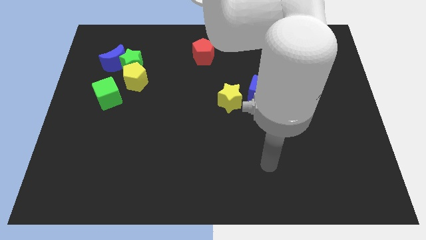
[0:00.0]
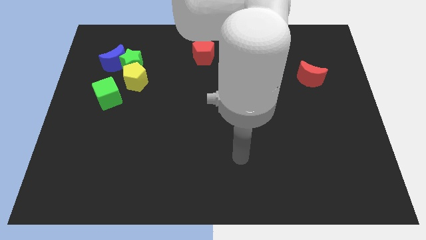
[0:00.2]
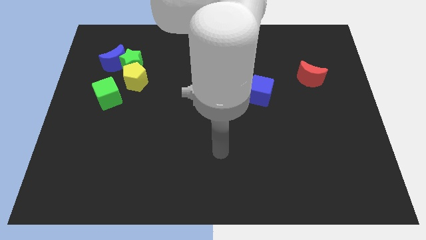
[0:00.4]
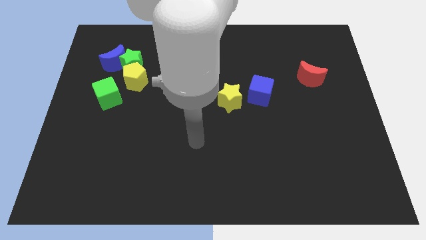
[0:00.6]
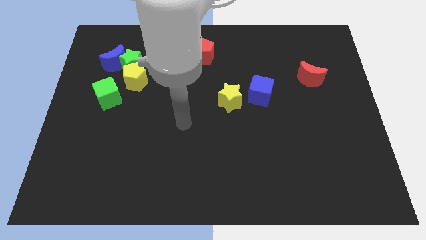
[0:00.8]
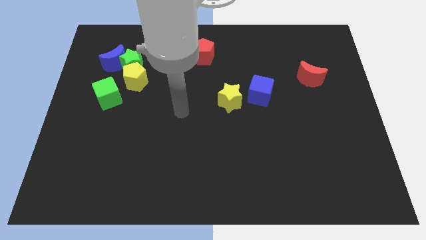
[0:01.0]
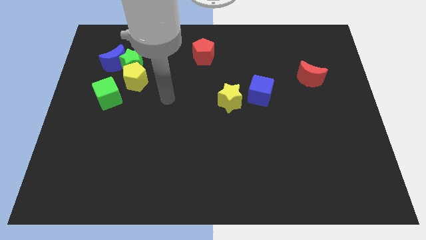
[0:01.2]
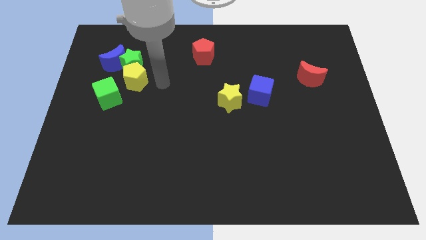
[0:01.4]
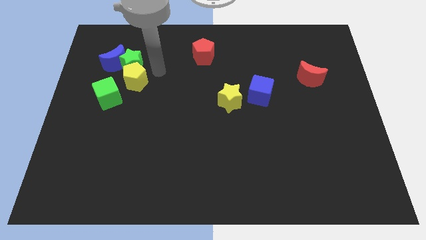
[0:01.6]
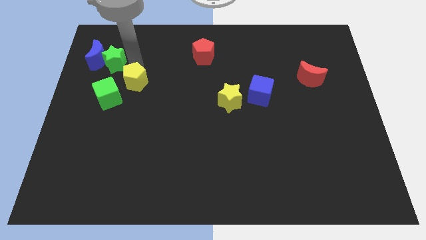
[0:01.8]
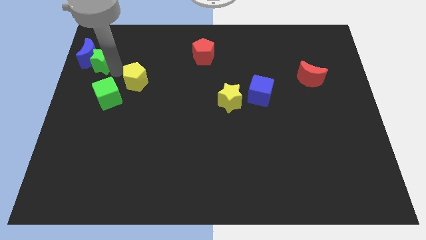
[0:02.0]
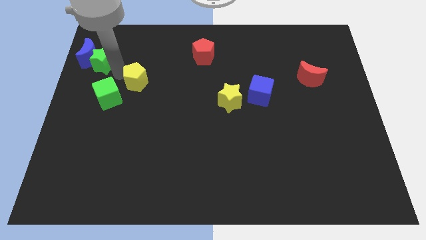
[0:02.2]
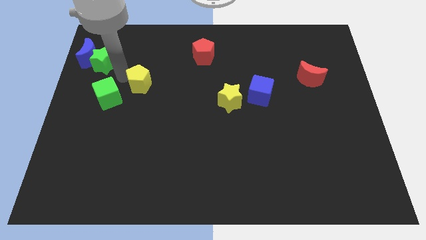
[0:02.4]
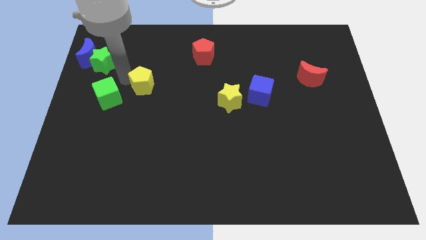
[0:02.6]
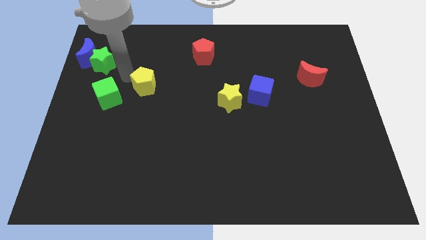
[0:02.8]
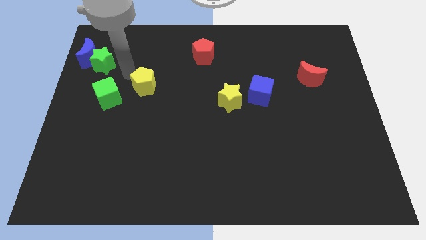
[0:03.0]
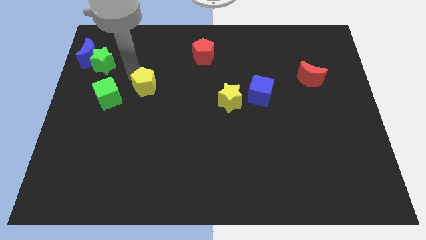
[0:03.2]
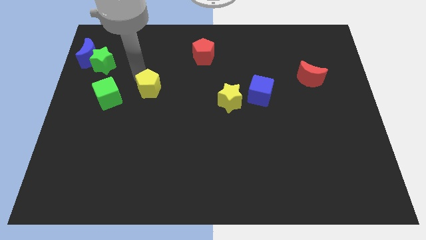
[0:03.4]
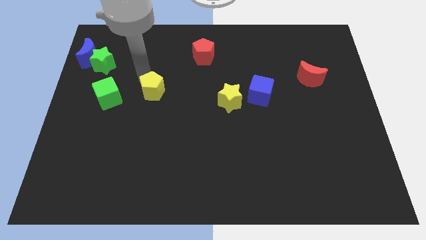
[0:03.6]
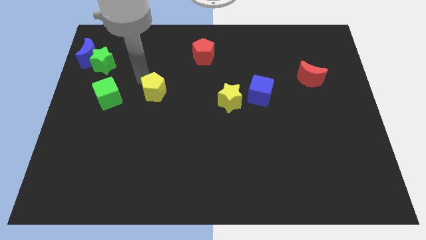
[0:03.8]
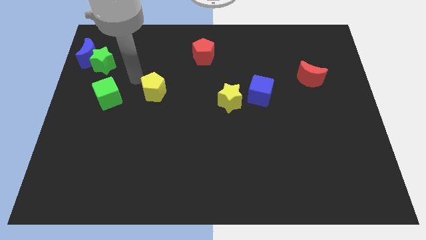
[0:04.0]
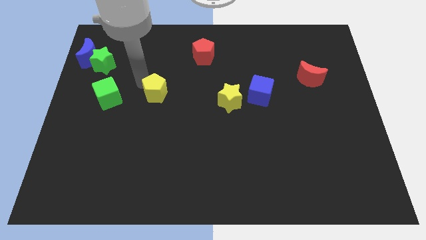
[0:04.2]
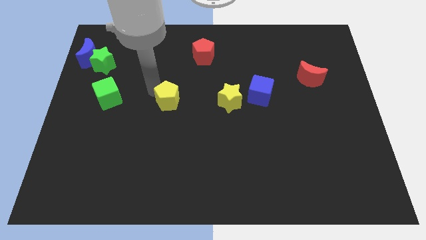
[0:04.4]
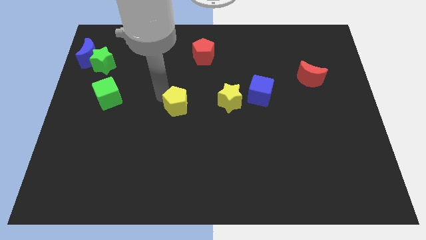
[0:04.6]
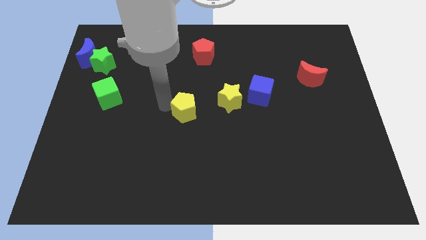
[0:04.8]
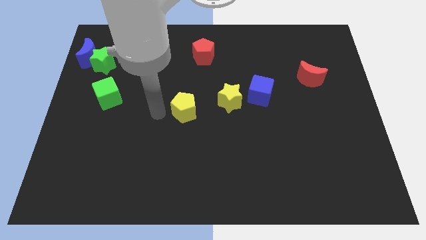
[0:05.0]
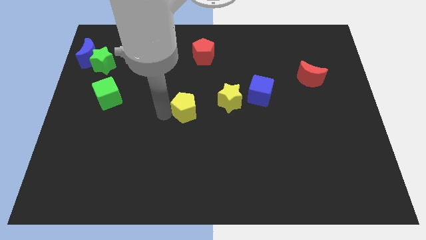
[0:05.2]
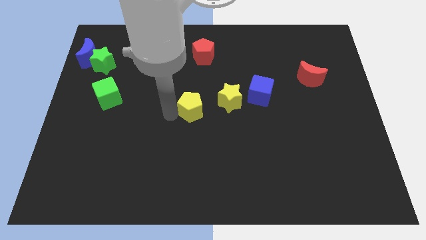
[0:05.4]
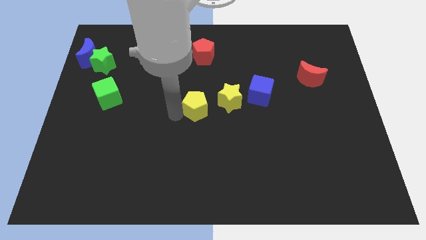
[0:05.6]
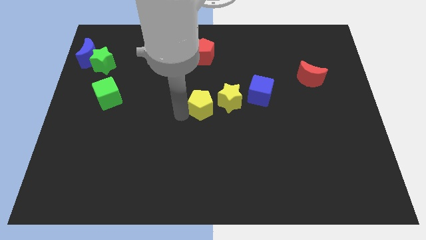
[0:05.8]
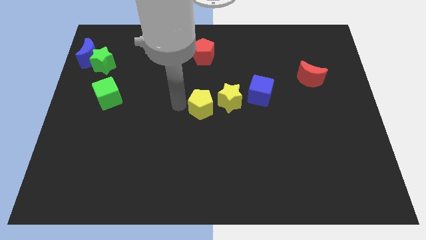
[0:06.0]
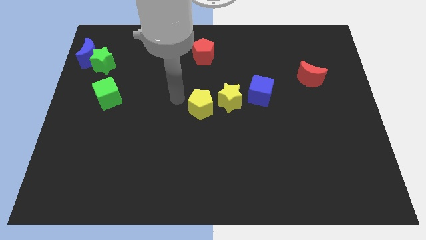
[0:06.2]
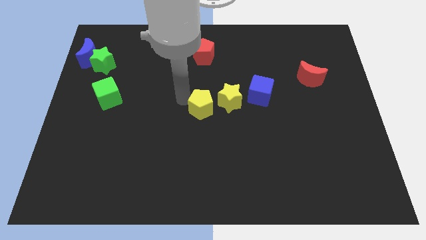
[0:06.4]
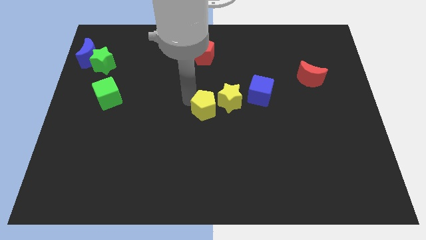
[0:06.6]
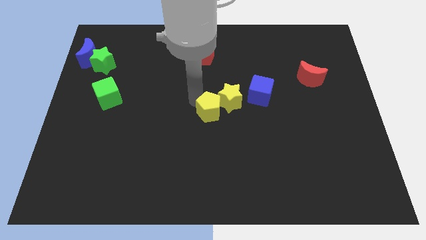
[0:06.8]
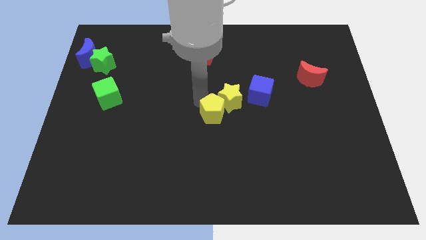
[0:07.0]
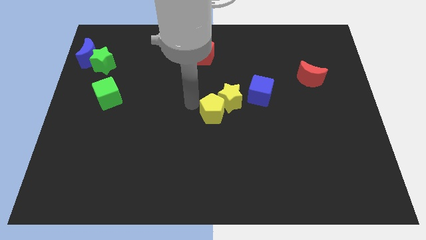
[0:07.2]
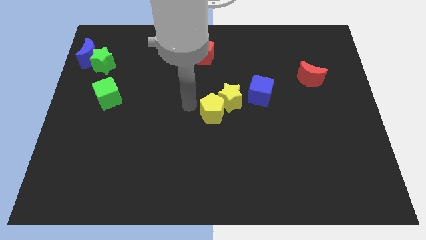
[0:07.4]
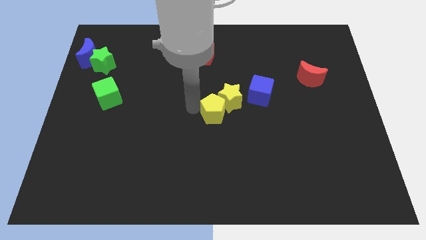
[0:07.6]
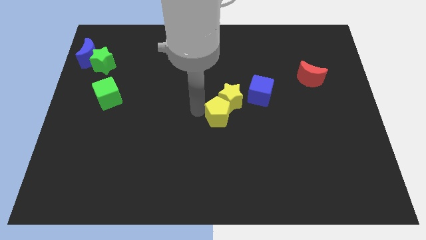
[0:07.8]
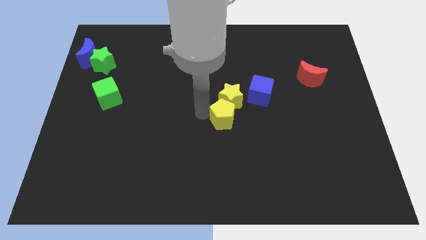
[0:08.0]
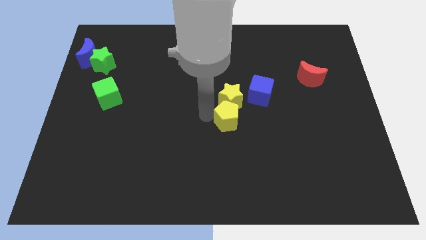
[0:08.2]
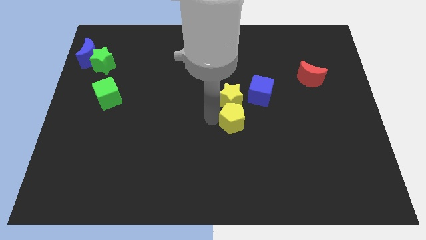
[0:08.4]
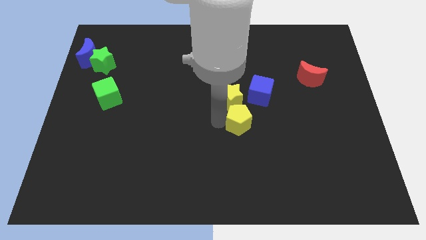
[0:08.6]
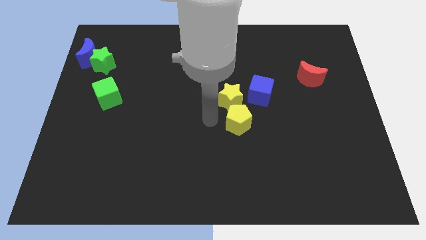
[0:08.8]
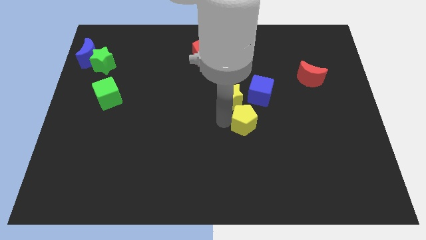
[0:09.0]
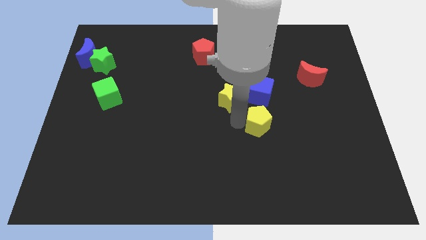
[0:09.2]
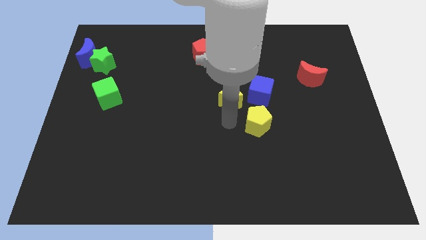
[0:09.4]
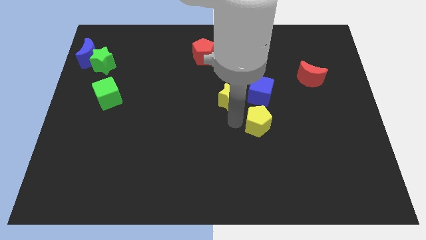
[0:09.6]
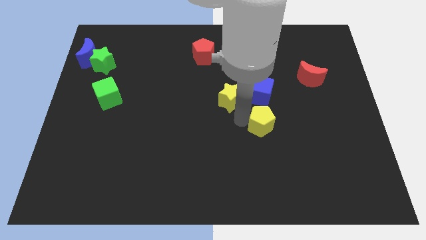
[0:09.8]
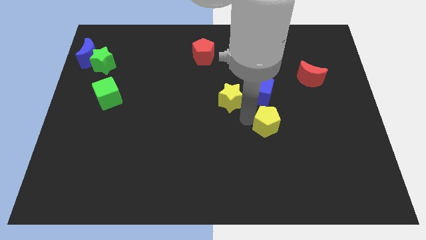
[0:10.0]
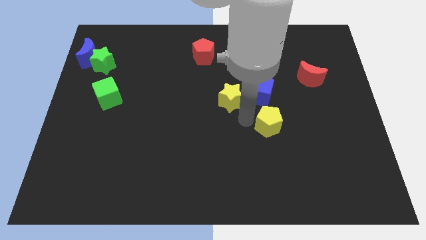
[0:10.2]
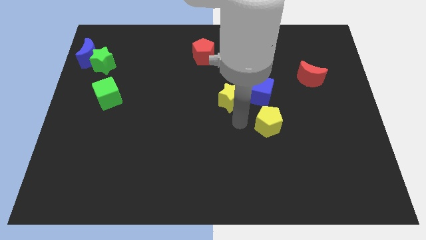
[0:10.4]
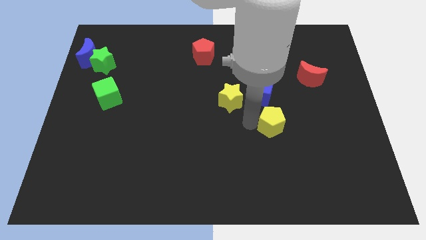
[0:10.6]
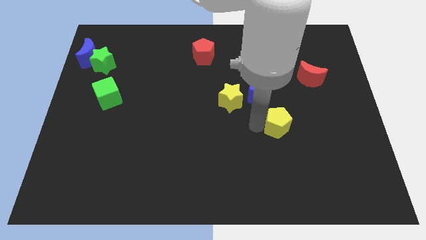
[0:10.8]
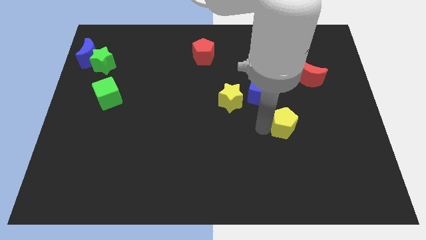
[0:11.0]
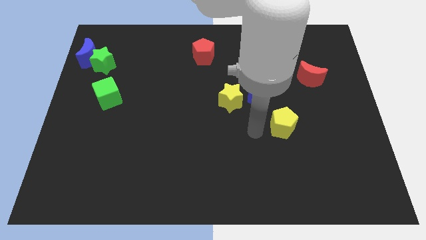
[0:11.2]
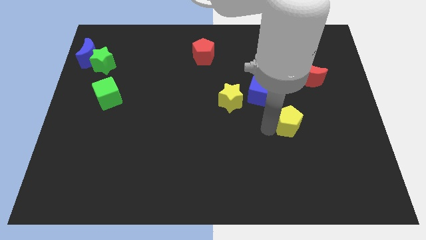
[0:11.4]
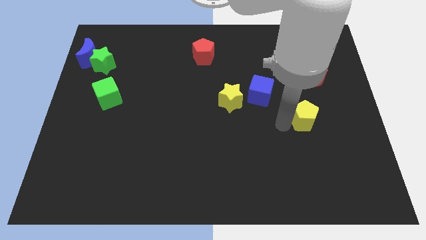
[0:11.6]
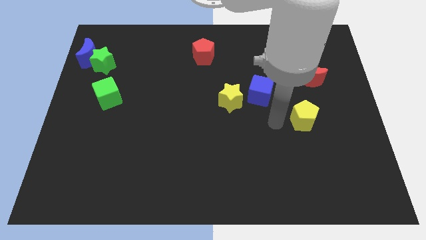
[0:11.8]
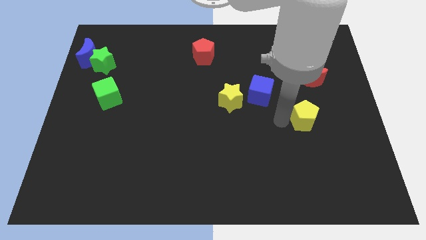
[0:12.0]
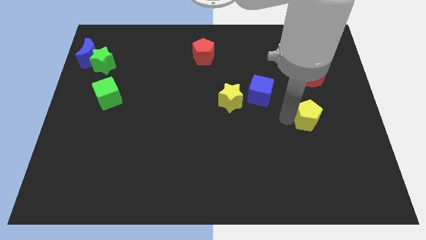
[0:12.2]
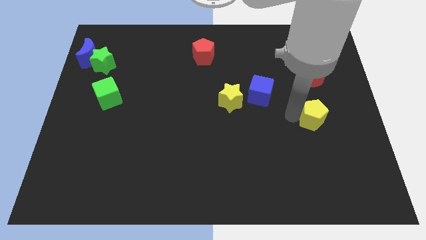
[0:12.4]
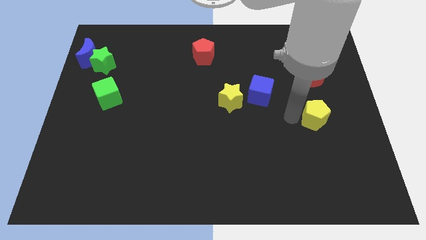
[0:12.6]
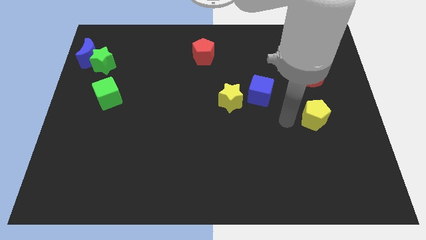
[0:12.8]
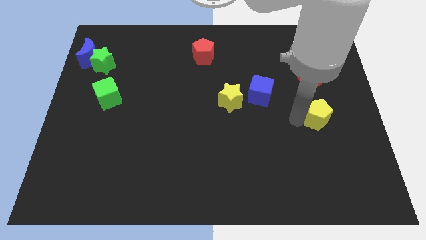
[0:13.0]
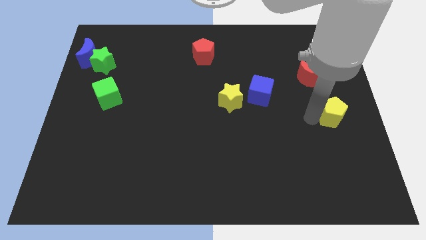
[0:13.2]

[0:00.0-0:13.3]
move the yellow pentagon to the right side
